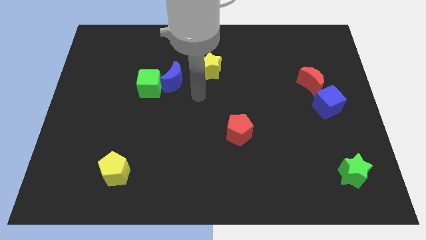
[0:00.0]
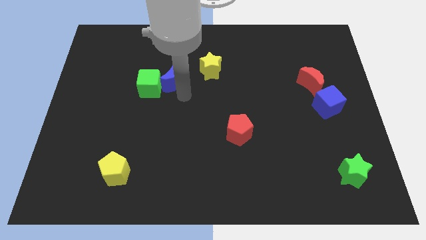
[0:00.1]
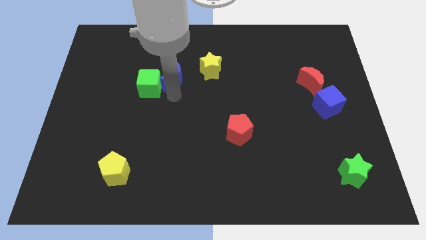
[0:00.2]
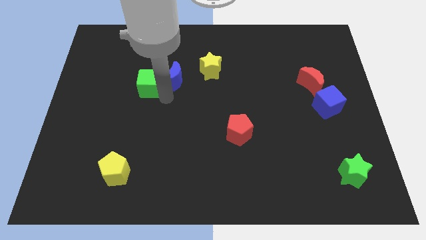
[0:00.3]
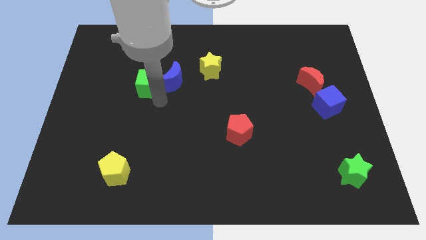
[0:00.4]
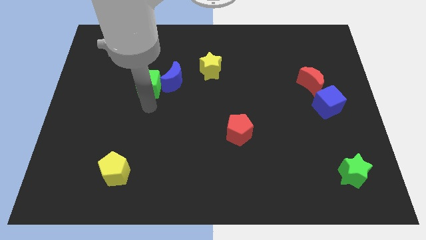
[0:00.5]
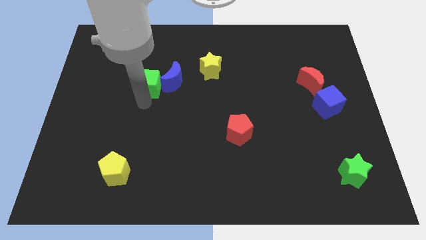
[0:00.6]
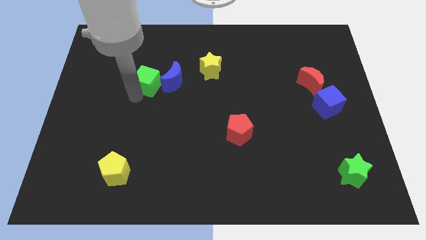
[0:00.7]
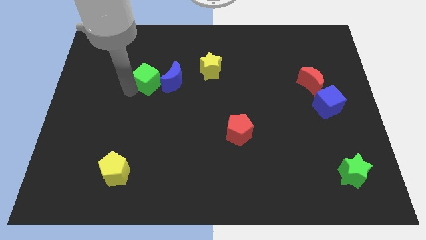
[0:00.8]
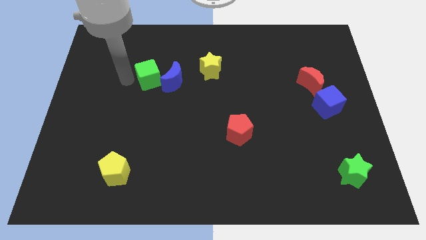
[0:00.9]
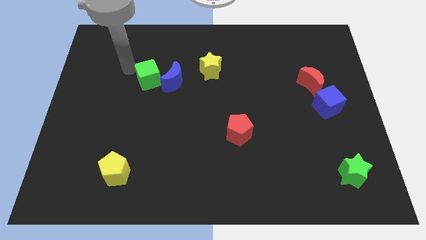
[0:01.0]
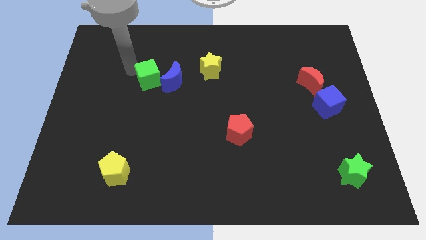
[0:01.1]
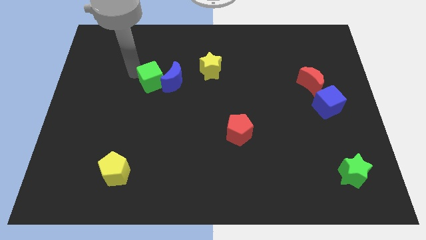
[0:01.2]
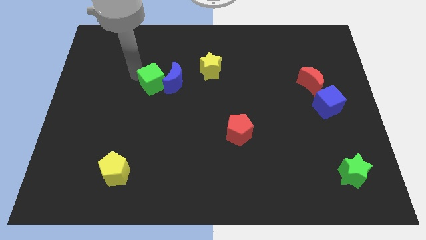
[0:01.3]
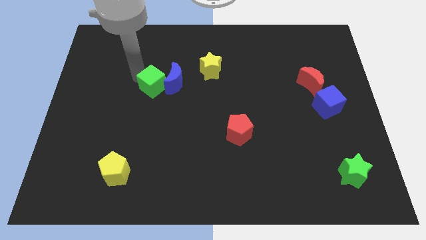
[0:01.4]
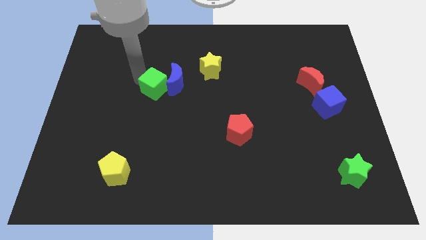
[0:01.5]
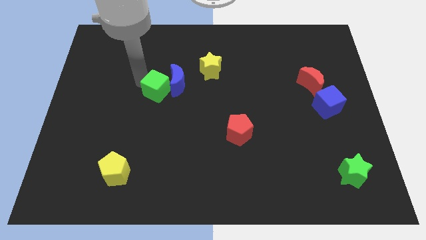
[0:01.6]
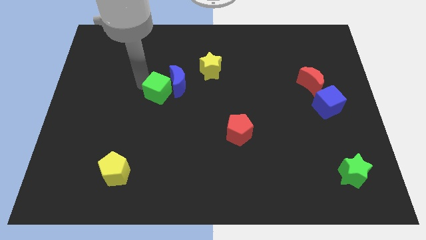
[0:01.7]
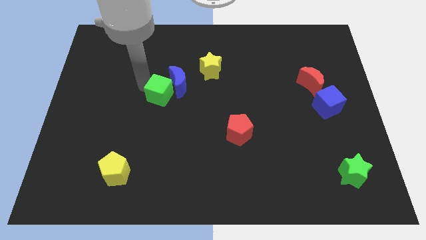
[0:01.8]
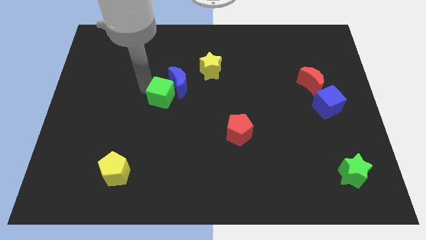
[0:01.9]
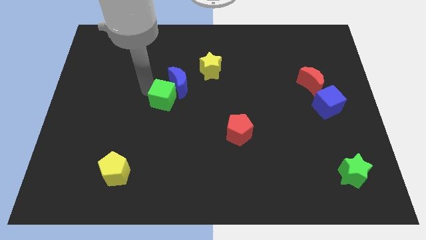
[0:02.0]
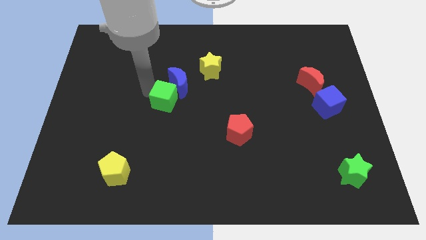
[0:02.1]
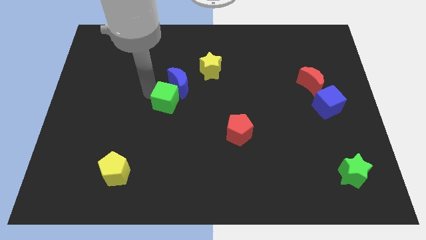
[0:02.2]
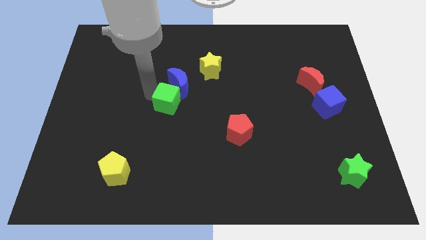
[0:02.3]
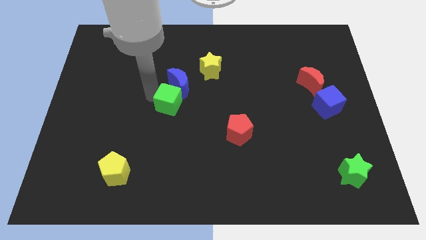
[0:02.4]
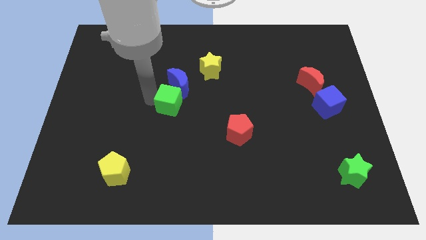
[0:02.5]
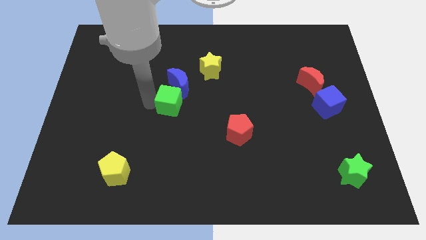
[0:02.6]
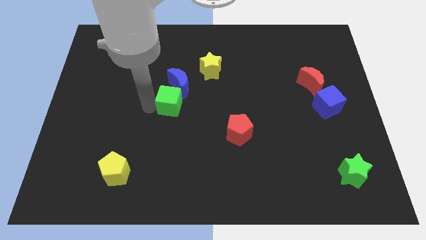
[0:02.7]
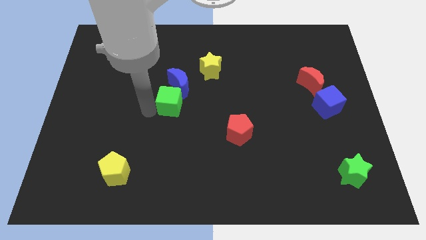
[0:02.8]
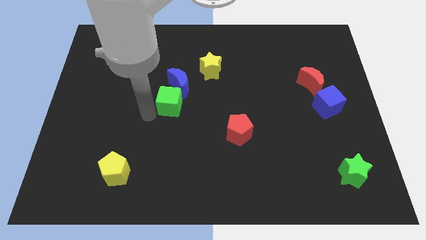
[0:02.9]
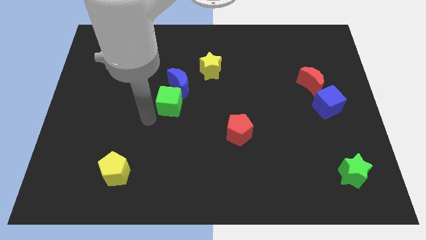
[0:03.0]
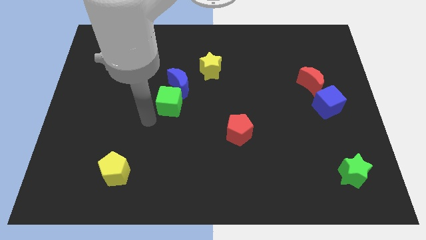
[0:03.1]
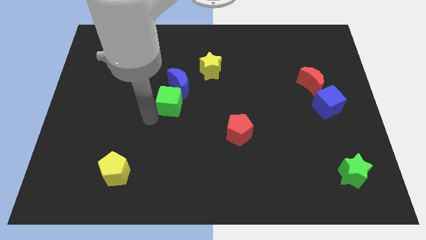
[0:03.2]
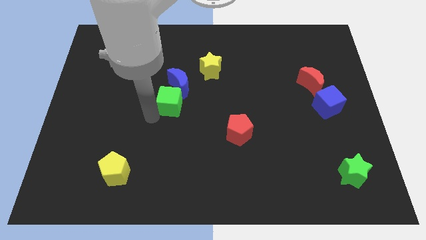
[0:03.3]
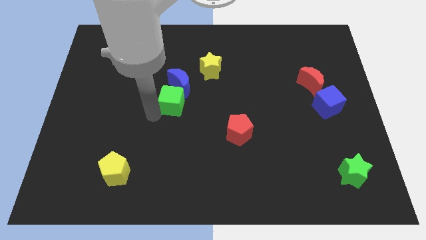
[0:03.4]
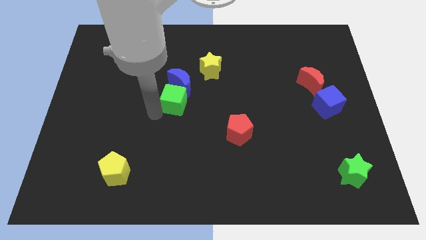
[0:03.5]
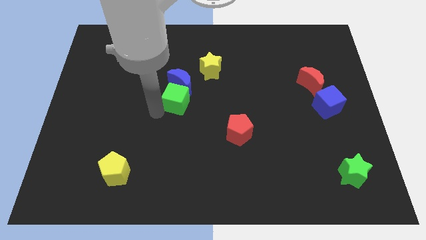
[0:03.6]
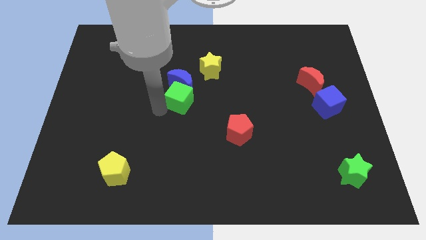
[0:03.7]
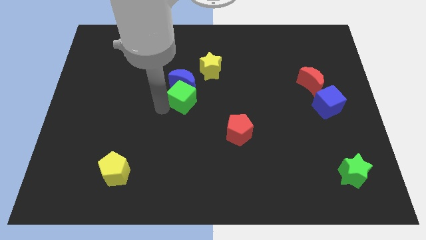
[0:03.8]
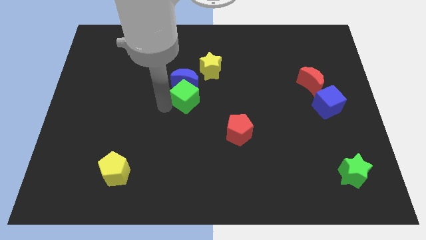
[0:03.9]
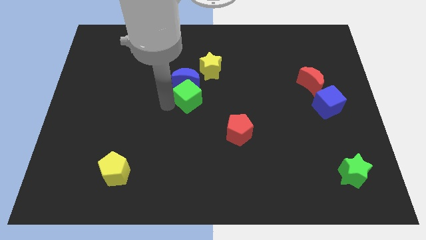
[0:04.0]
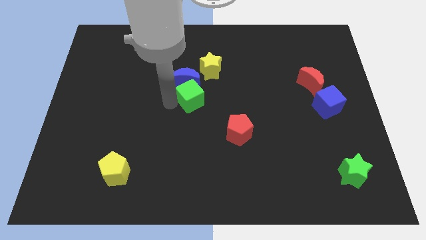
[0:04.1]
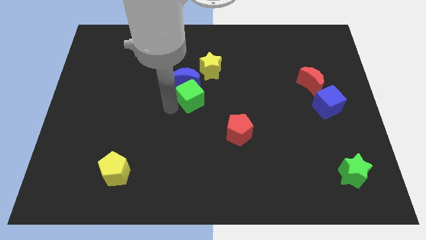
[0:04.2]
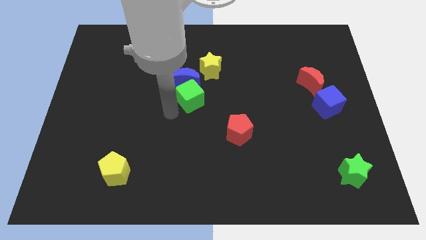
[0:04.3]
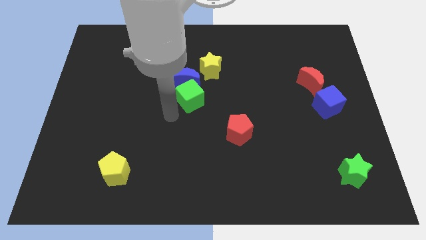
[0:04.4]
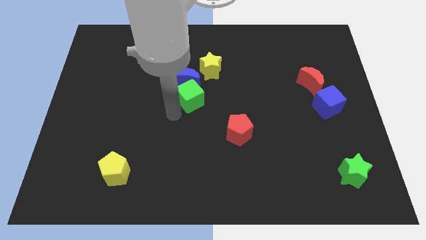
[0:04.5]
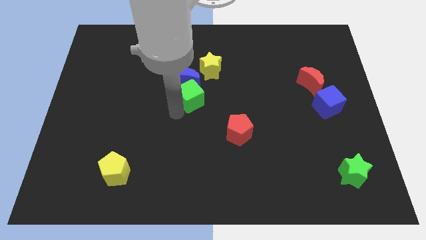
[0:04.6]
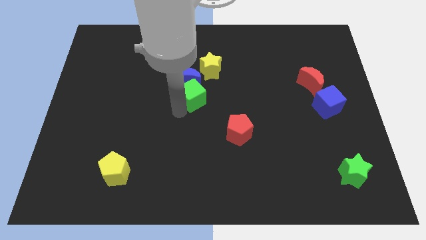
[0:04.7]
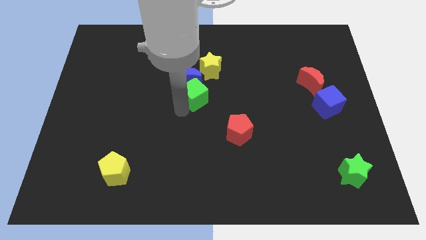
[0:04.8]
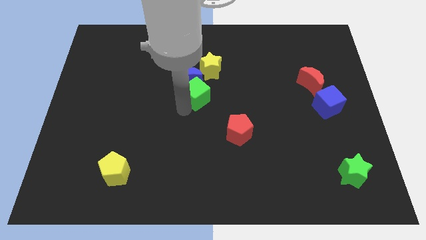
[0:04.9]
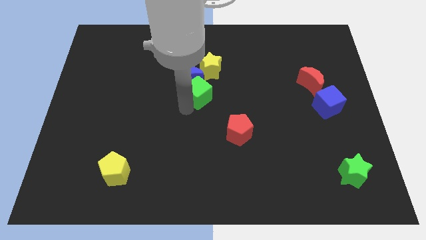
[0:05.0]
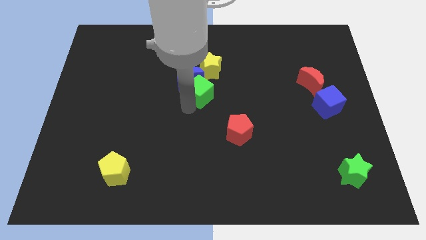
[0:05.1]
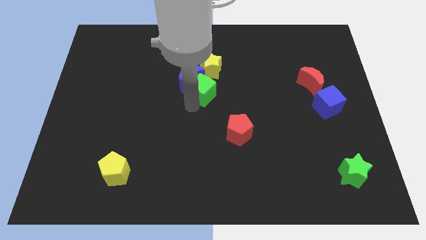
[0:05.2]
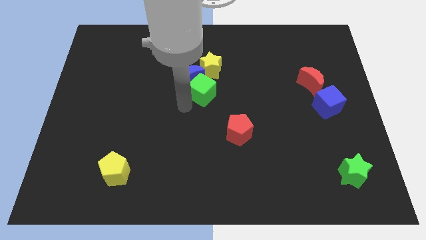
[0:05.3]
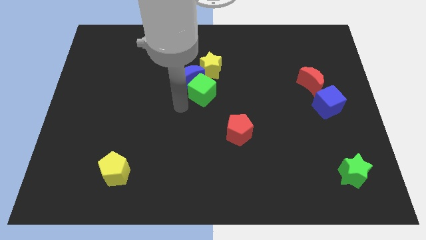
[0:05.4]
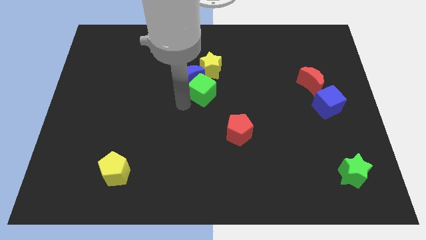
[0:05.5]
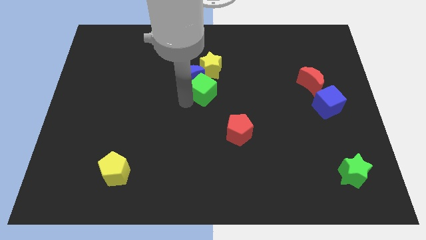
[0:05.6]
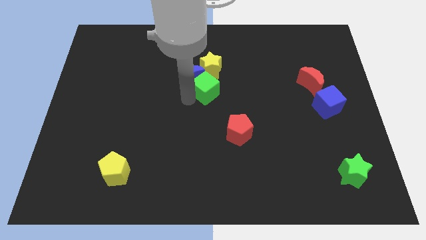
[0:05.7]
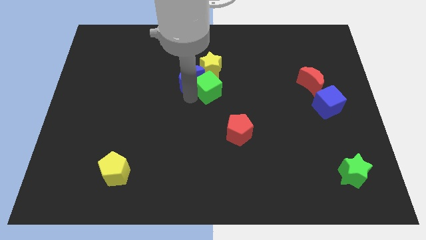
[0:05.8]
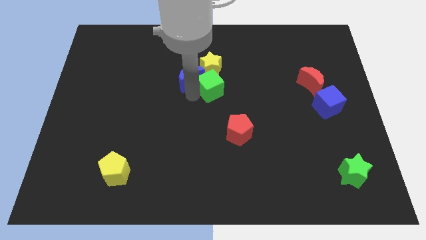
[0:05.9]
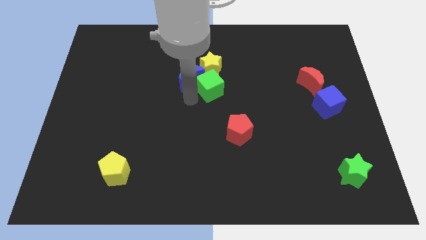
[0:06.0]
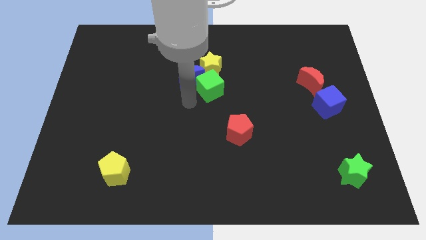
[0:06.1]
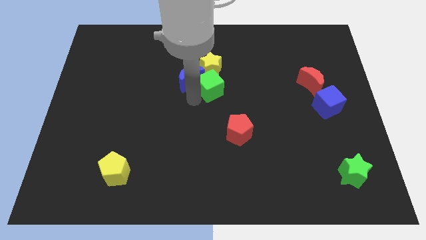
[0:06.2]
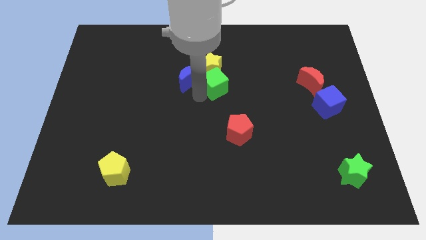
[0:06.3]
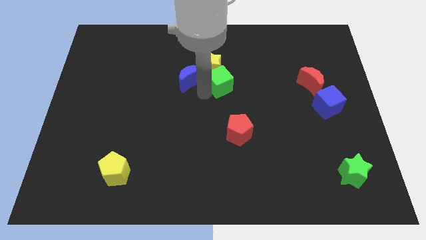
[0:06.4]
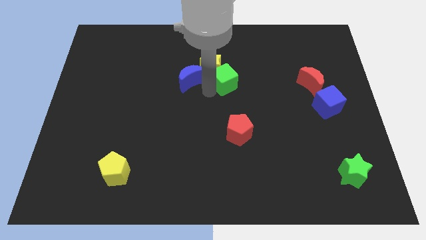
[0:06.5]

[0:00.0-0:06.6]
put the green cube to the right side of the yellow star

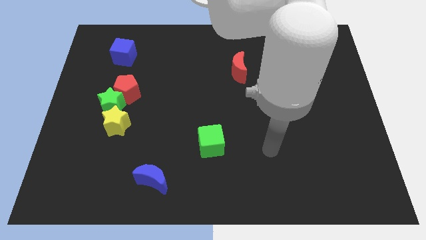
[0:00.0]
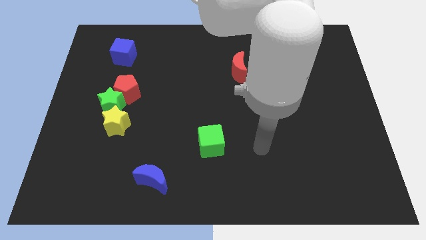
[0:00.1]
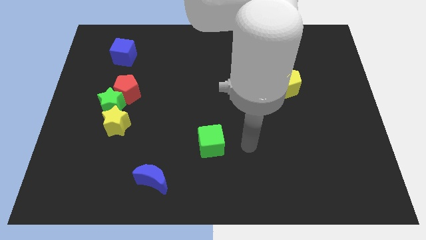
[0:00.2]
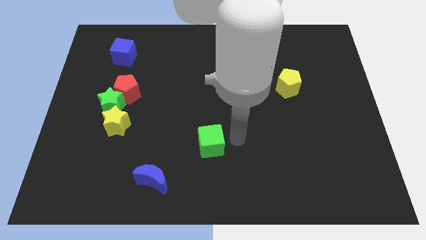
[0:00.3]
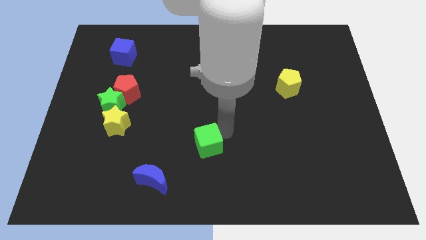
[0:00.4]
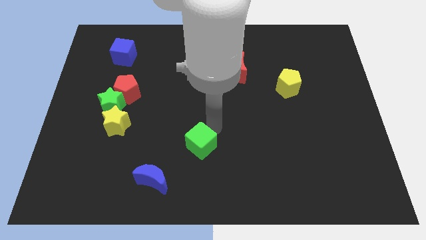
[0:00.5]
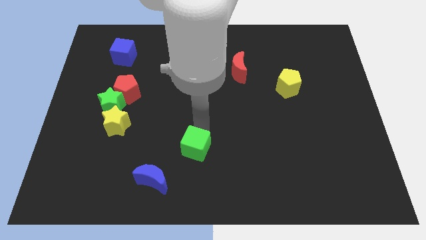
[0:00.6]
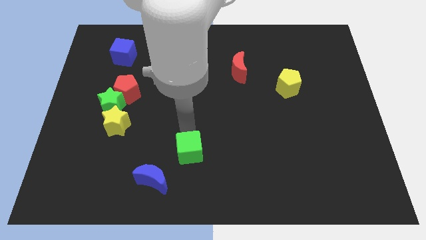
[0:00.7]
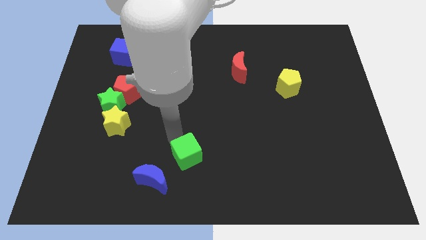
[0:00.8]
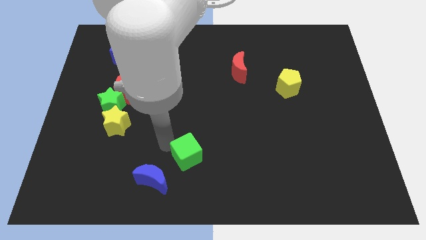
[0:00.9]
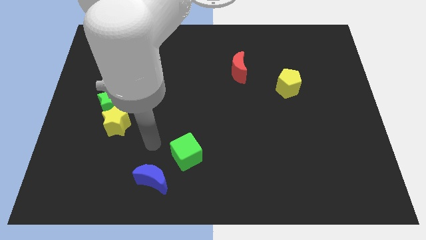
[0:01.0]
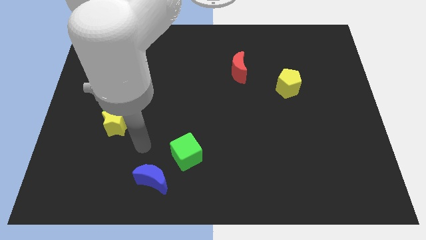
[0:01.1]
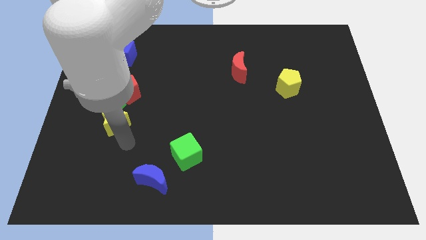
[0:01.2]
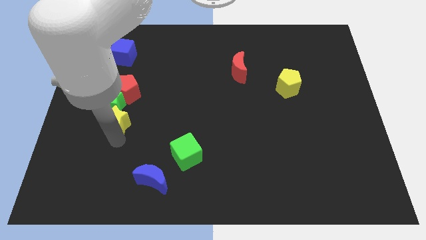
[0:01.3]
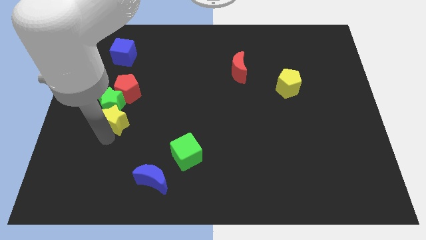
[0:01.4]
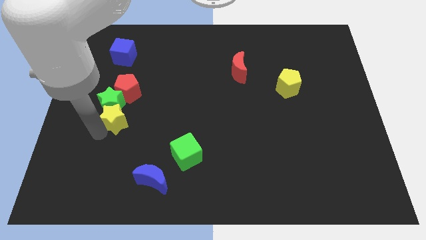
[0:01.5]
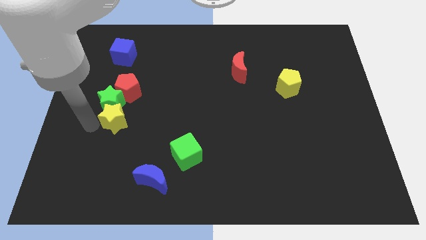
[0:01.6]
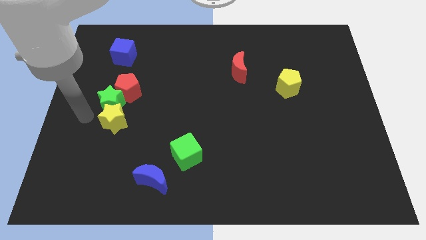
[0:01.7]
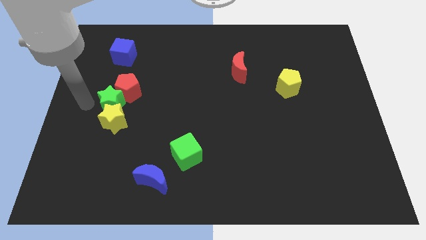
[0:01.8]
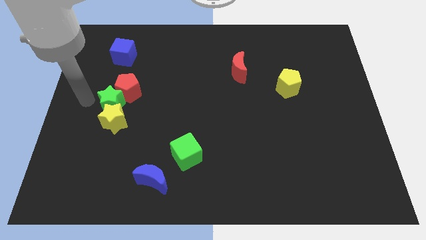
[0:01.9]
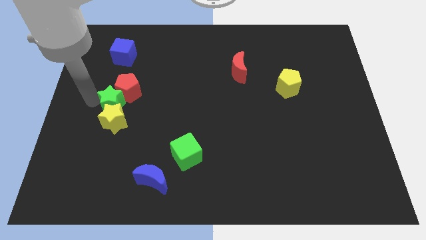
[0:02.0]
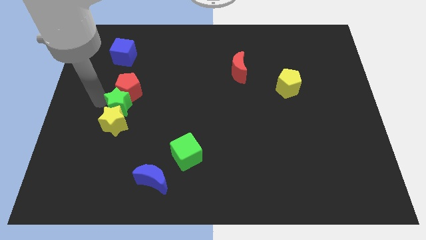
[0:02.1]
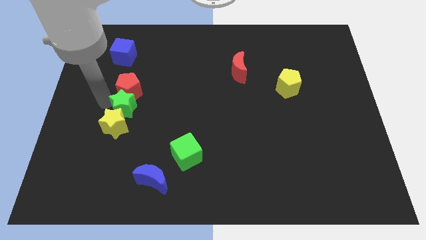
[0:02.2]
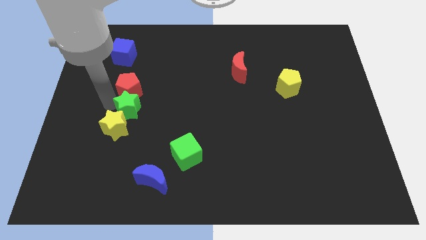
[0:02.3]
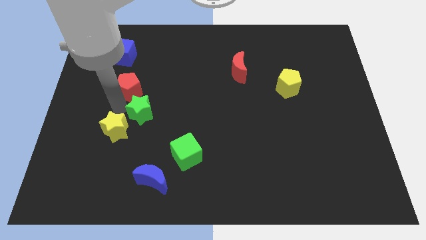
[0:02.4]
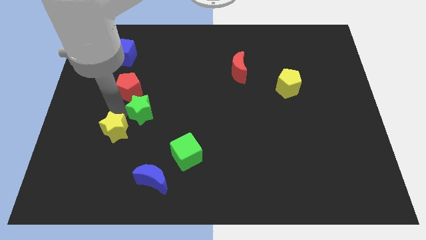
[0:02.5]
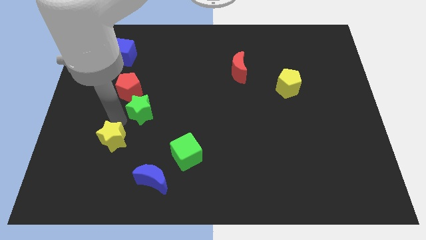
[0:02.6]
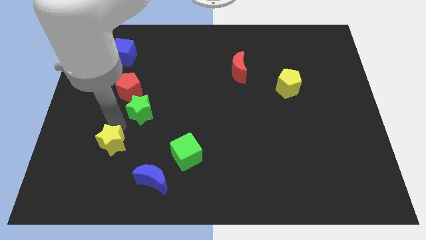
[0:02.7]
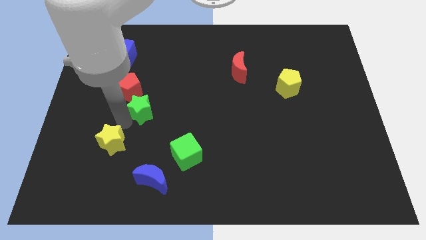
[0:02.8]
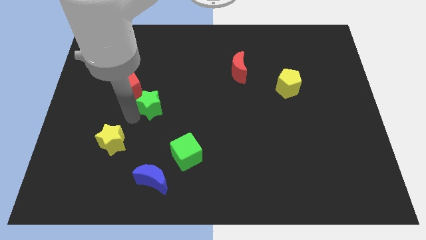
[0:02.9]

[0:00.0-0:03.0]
slide the green star to the right side of the red pentagon
